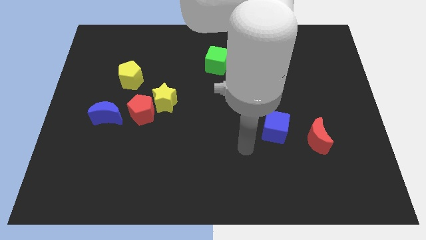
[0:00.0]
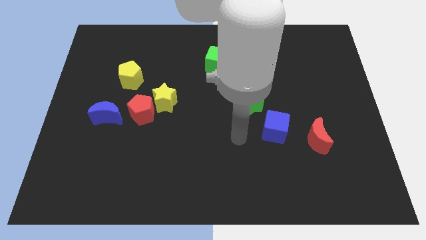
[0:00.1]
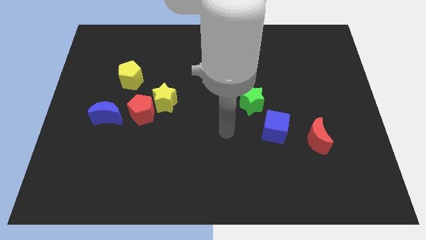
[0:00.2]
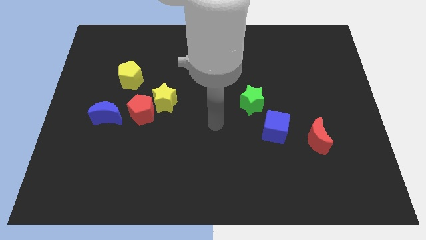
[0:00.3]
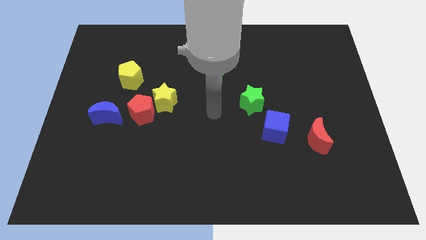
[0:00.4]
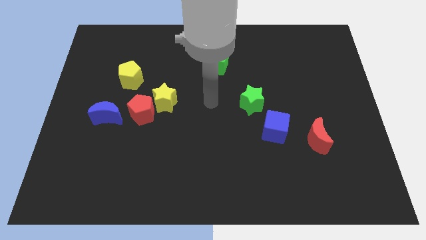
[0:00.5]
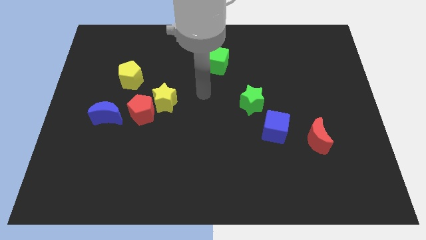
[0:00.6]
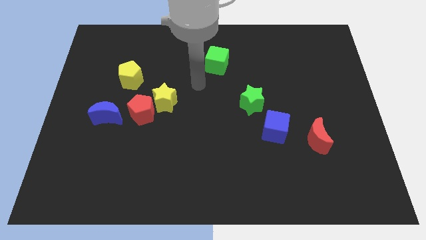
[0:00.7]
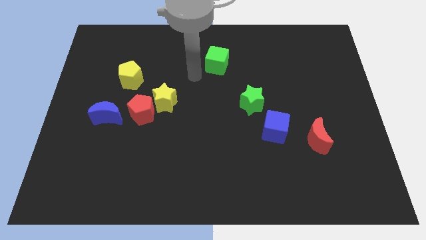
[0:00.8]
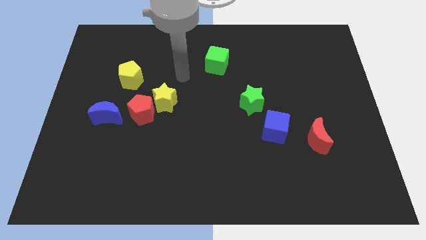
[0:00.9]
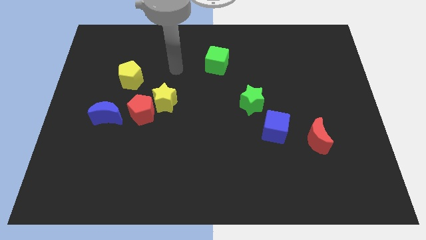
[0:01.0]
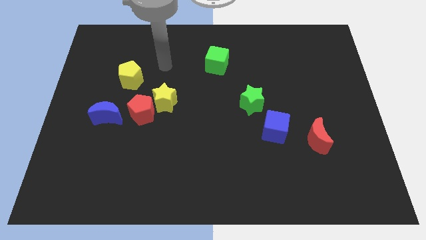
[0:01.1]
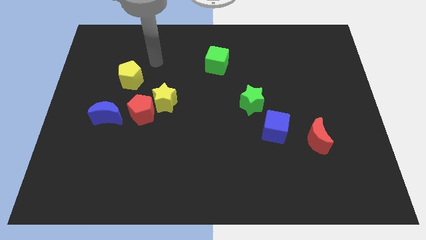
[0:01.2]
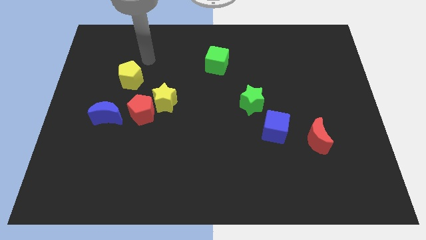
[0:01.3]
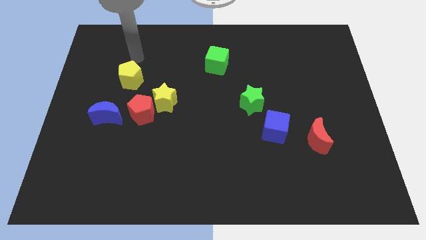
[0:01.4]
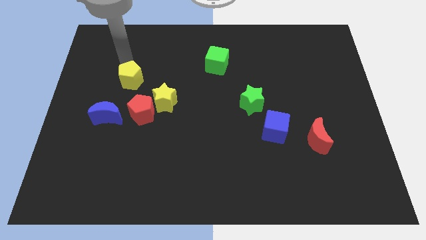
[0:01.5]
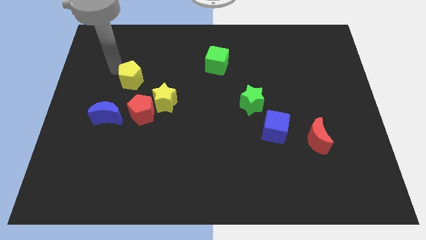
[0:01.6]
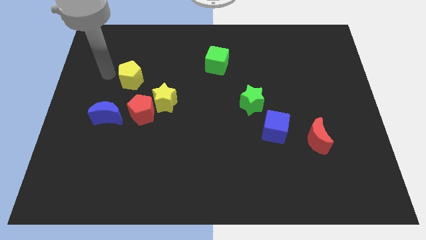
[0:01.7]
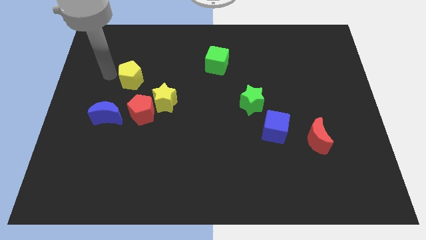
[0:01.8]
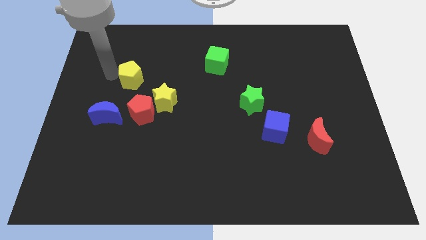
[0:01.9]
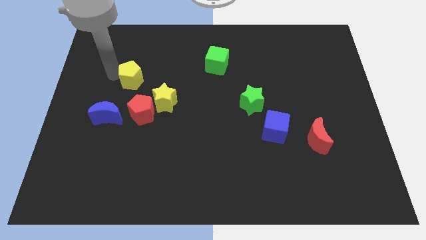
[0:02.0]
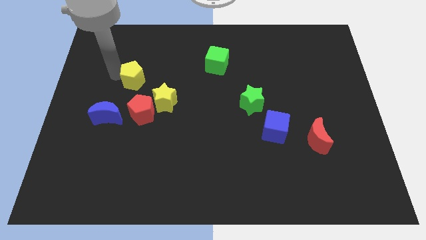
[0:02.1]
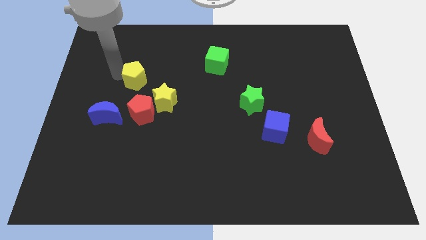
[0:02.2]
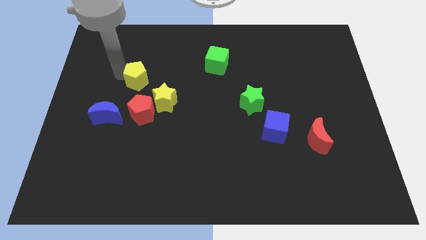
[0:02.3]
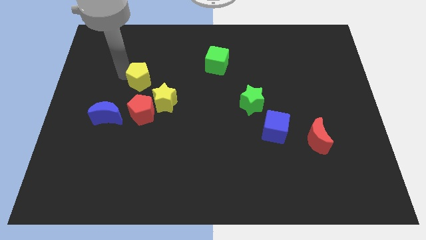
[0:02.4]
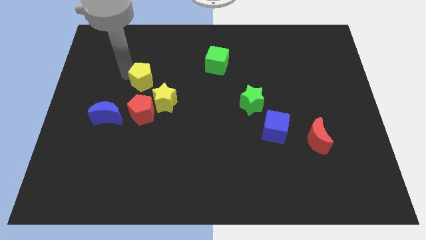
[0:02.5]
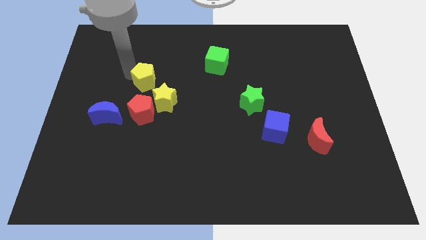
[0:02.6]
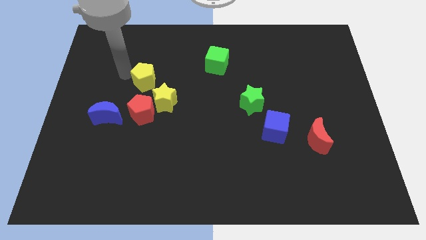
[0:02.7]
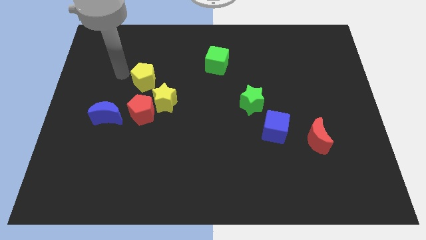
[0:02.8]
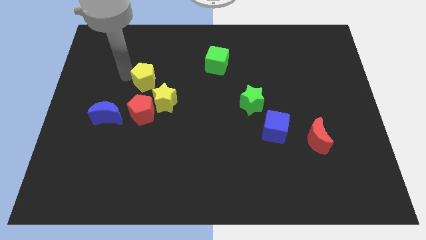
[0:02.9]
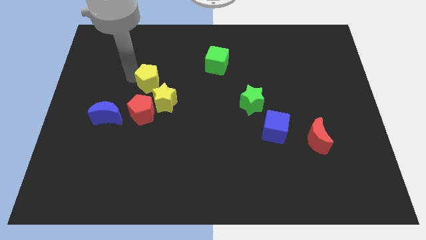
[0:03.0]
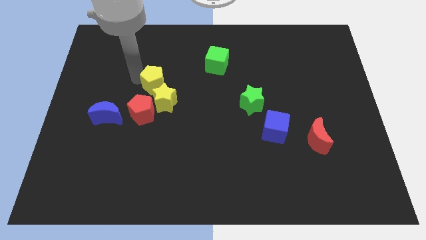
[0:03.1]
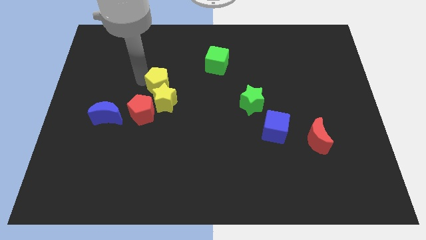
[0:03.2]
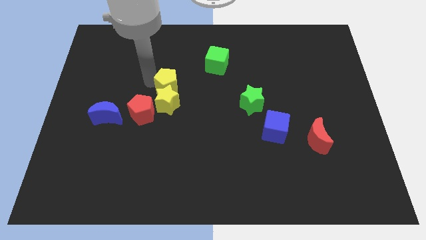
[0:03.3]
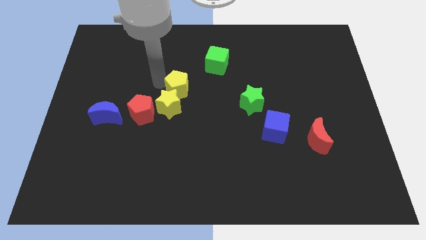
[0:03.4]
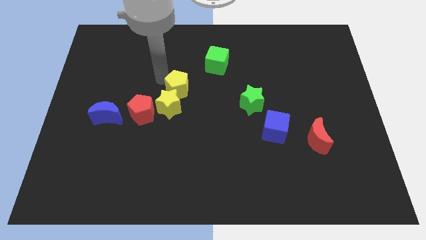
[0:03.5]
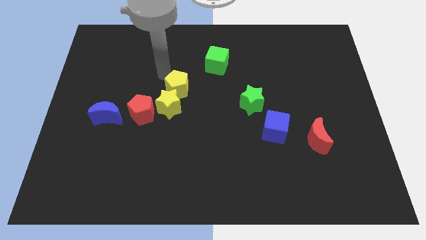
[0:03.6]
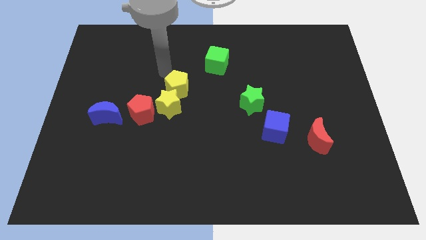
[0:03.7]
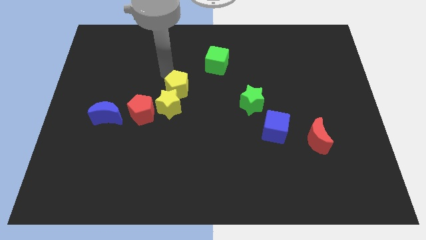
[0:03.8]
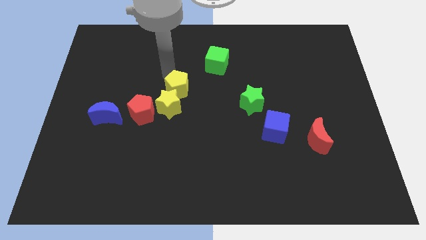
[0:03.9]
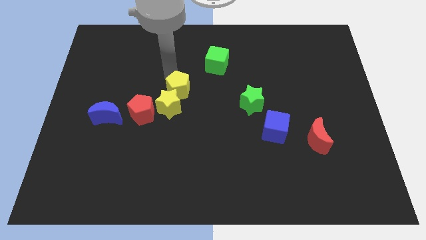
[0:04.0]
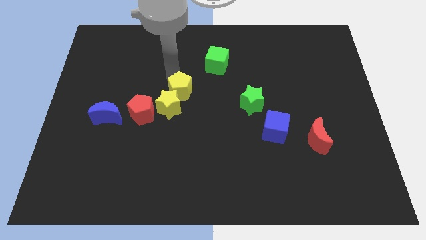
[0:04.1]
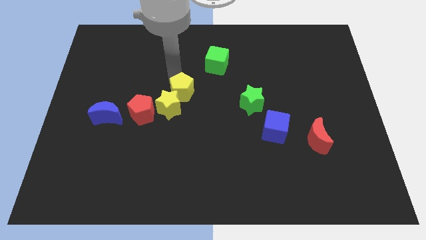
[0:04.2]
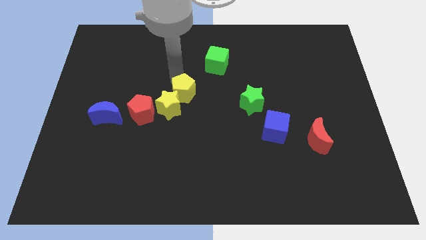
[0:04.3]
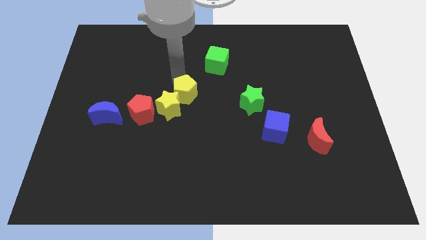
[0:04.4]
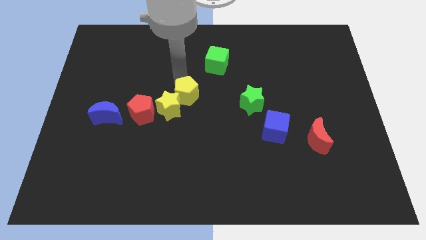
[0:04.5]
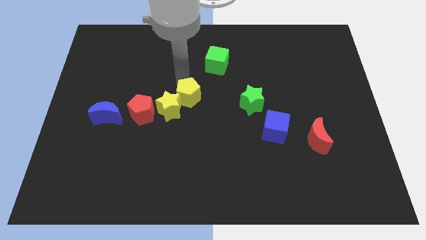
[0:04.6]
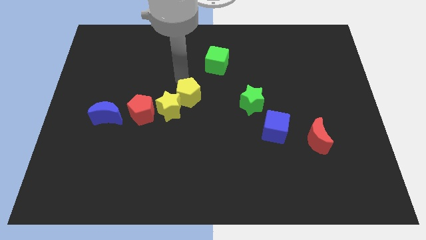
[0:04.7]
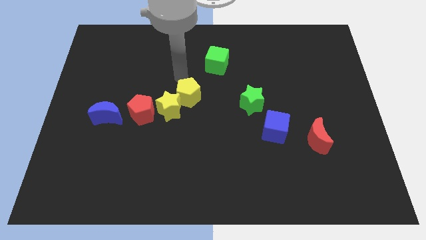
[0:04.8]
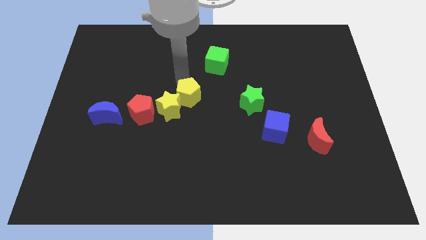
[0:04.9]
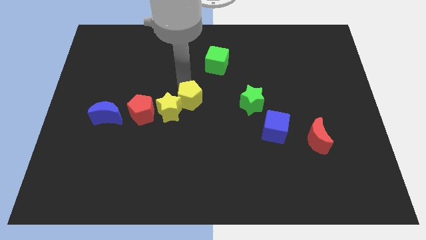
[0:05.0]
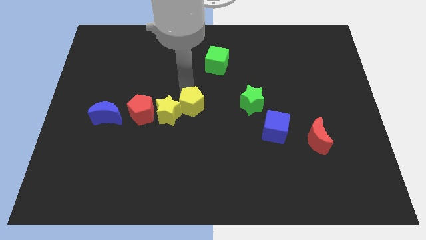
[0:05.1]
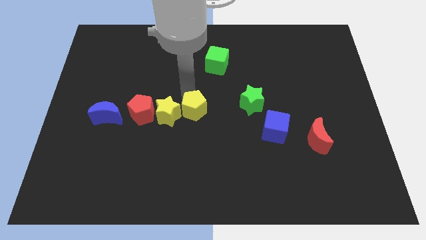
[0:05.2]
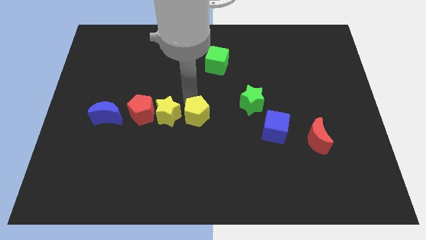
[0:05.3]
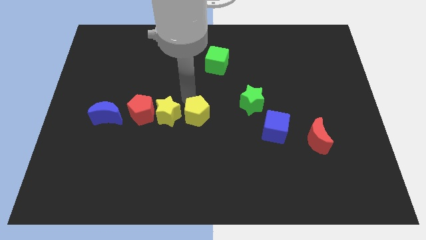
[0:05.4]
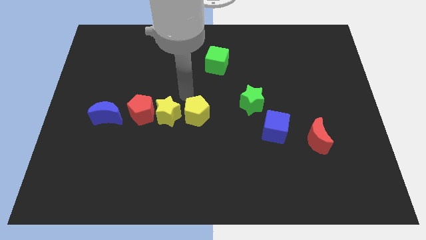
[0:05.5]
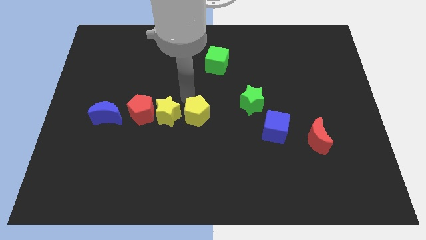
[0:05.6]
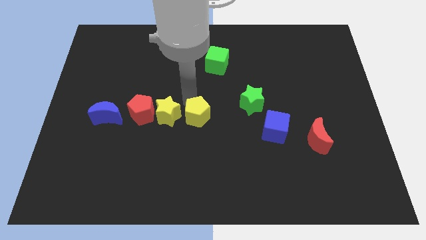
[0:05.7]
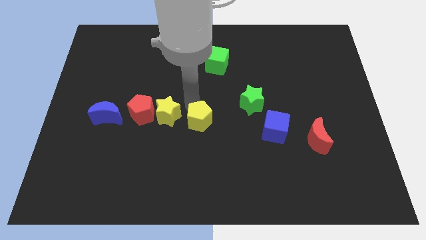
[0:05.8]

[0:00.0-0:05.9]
slide the yellow pentagon diagonally downwards and right

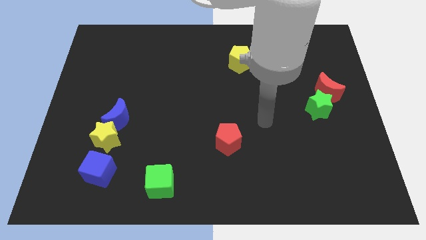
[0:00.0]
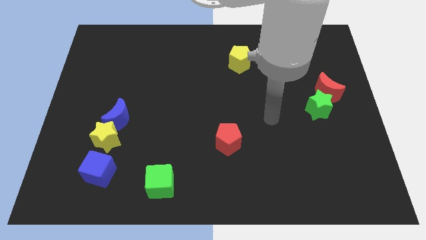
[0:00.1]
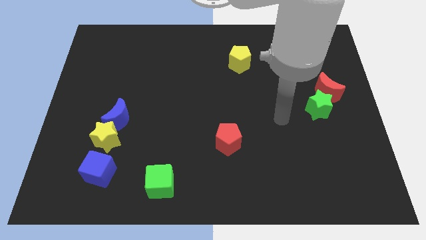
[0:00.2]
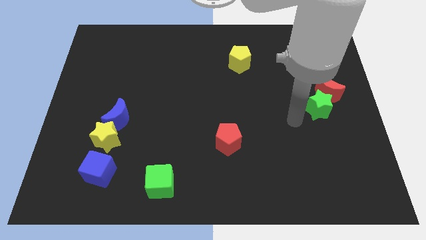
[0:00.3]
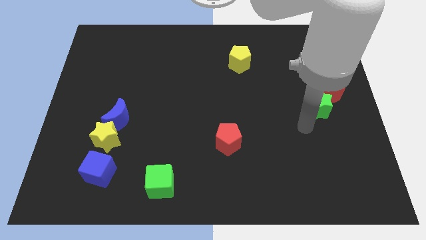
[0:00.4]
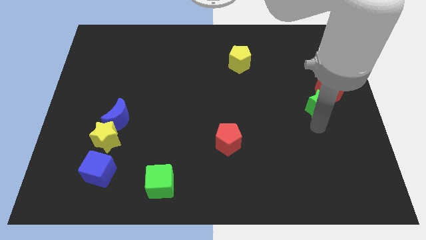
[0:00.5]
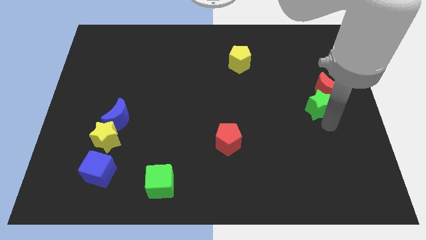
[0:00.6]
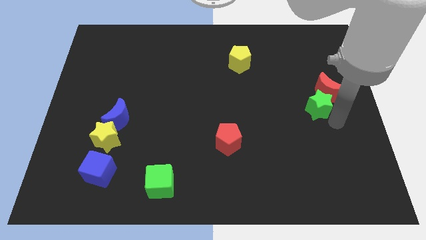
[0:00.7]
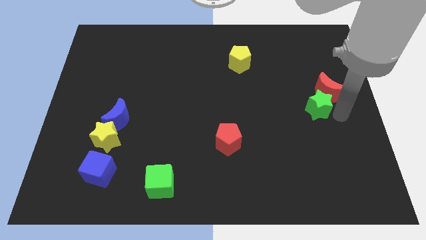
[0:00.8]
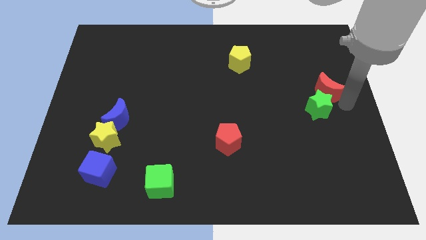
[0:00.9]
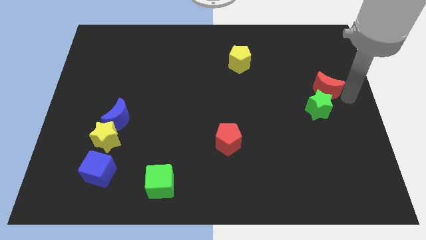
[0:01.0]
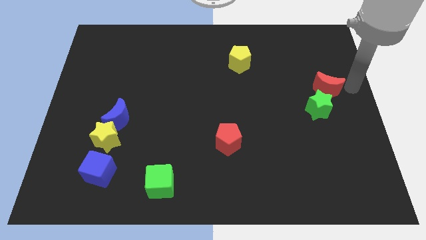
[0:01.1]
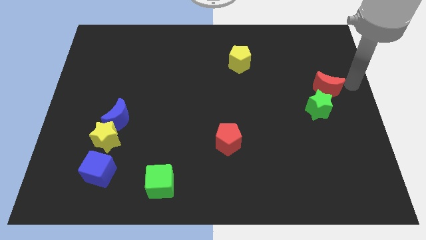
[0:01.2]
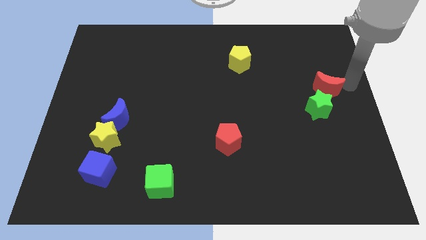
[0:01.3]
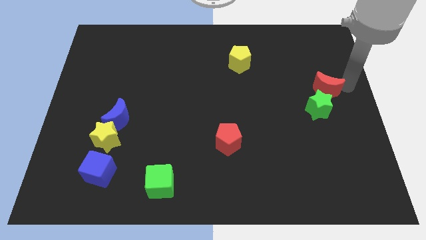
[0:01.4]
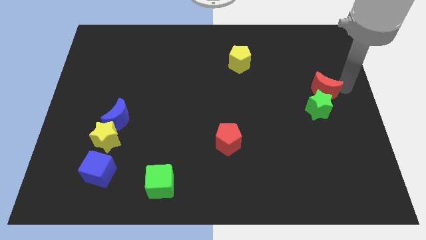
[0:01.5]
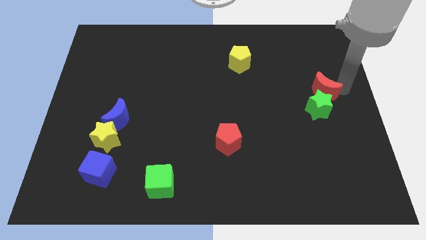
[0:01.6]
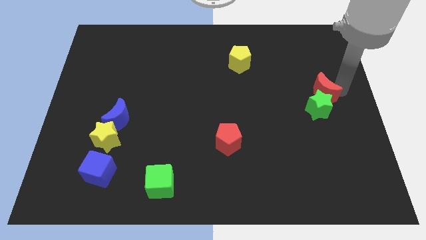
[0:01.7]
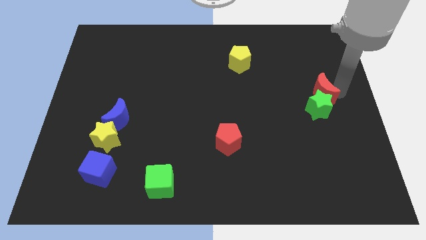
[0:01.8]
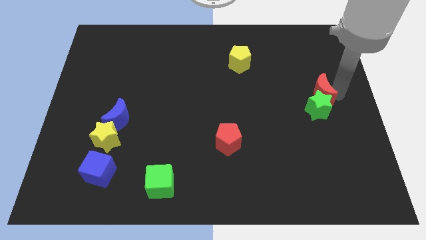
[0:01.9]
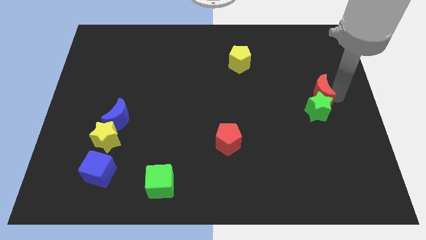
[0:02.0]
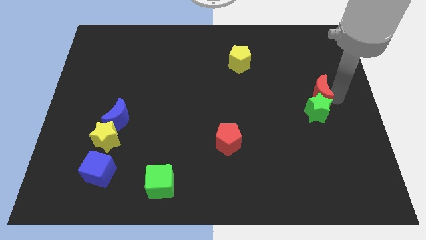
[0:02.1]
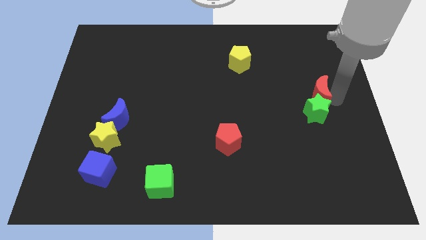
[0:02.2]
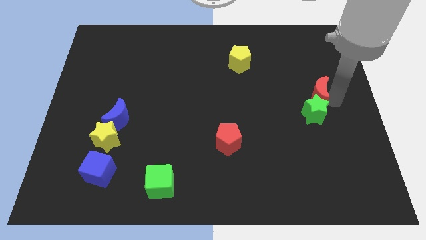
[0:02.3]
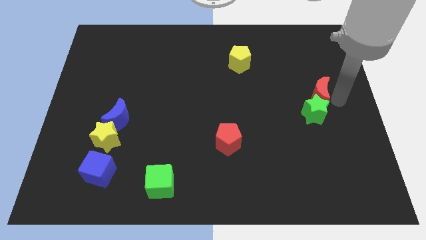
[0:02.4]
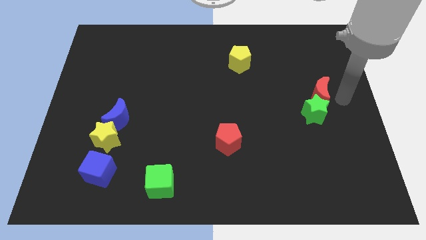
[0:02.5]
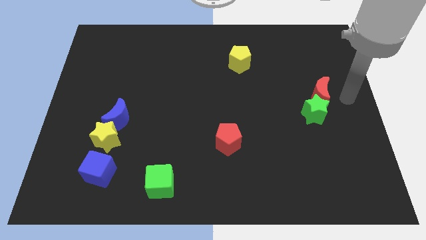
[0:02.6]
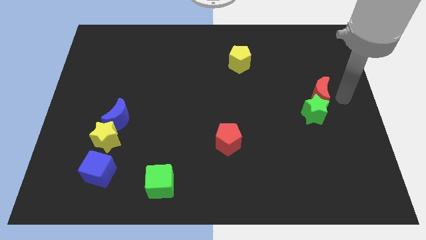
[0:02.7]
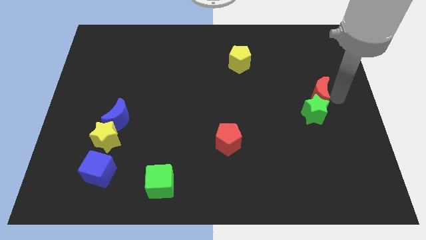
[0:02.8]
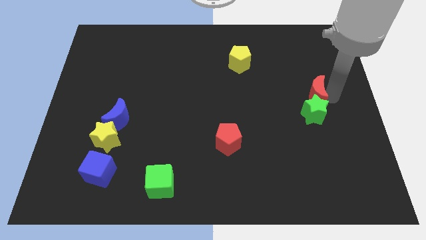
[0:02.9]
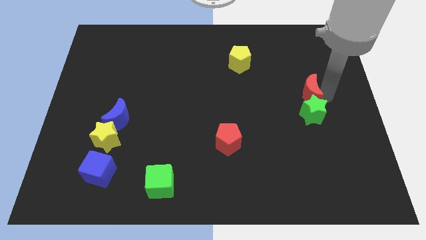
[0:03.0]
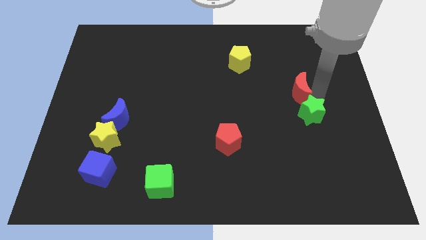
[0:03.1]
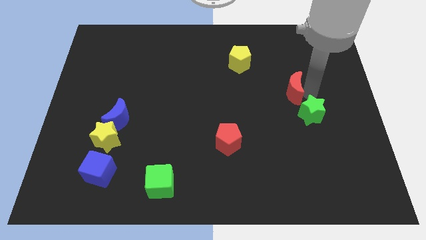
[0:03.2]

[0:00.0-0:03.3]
slide the red moon a bit left
